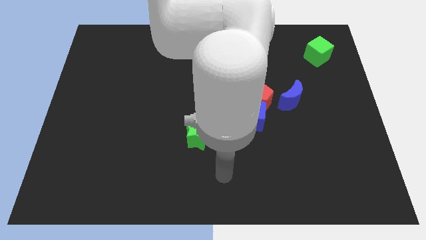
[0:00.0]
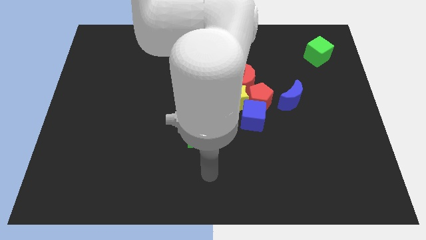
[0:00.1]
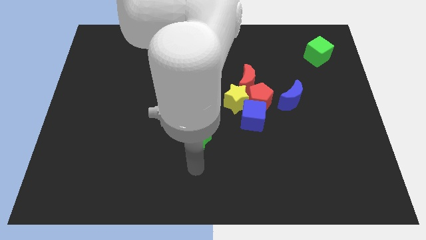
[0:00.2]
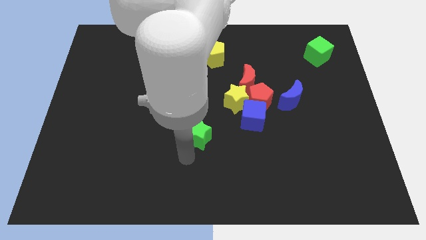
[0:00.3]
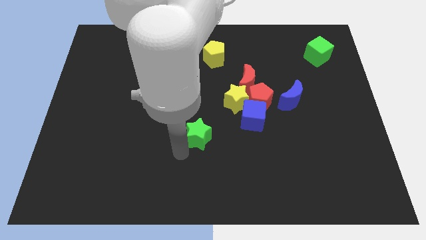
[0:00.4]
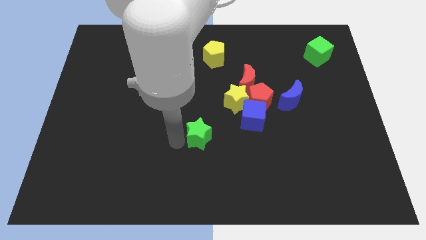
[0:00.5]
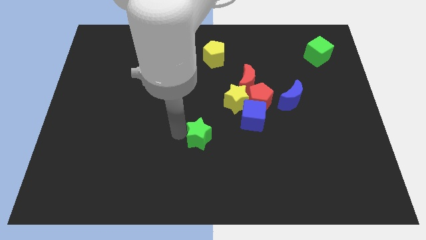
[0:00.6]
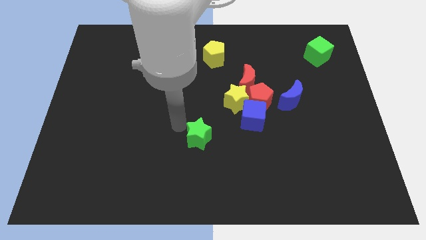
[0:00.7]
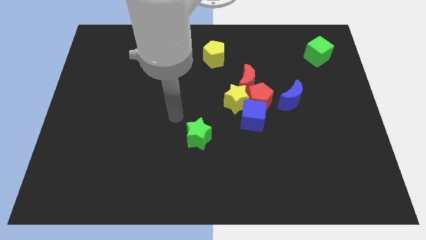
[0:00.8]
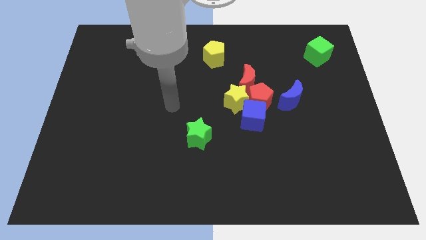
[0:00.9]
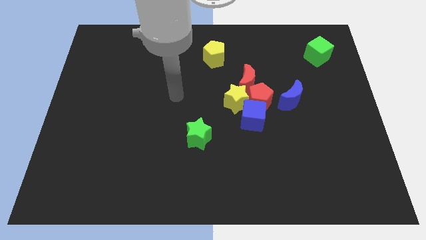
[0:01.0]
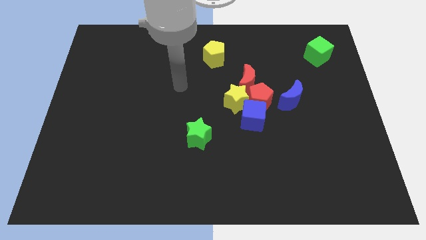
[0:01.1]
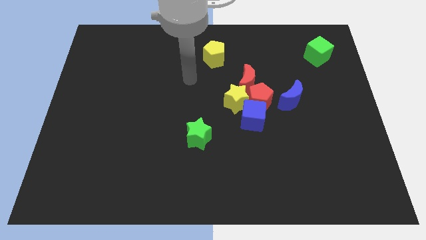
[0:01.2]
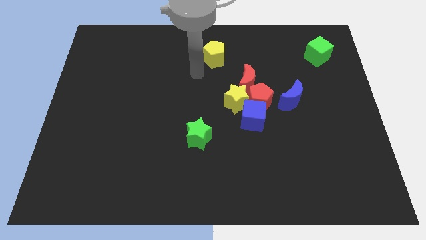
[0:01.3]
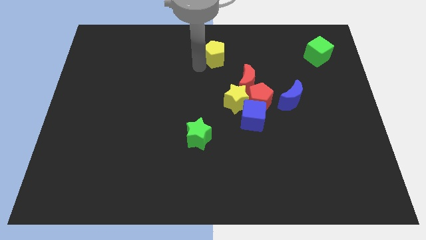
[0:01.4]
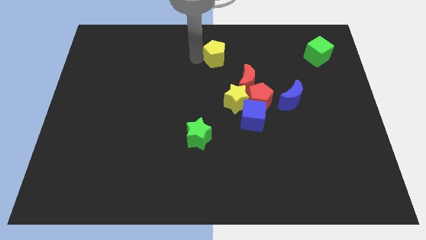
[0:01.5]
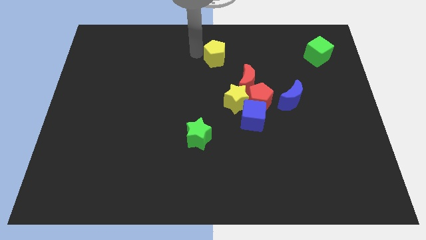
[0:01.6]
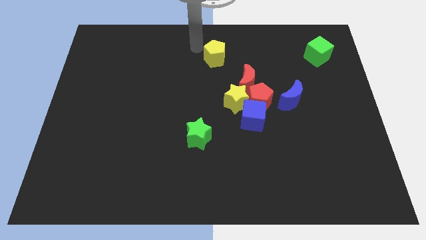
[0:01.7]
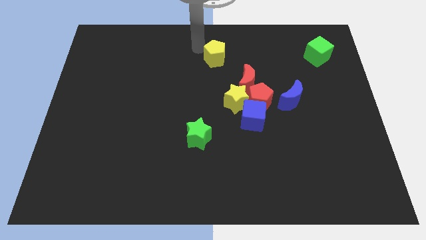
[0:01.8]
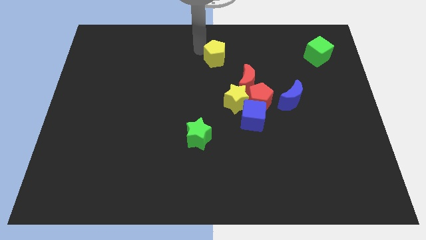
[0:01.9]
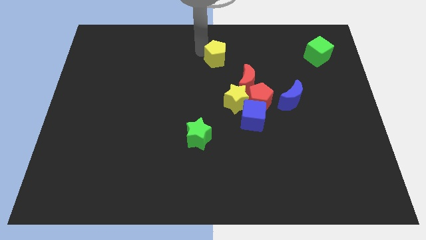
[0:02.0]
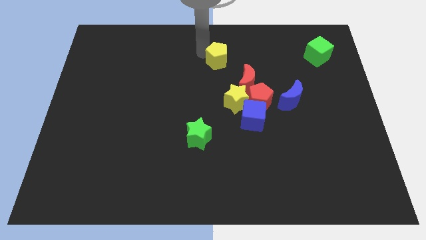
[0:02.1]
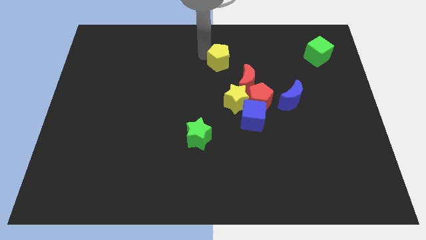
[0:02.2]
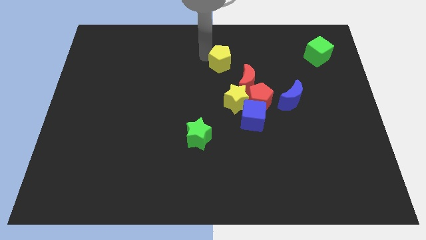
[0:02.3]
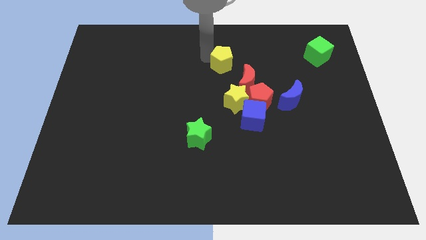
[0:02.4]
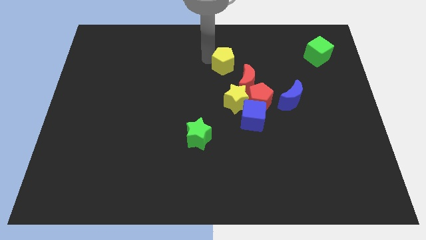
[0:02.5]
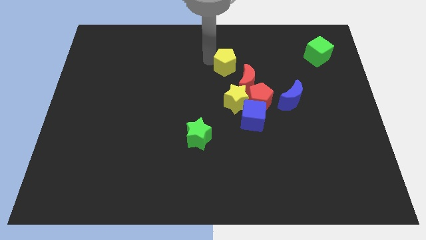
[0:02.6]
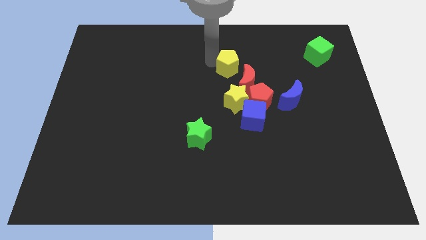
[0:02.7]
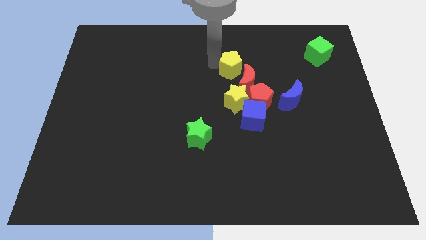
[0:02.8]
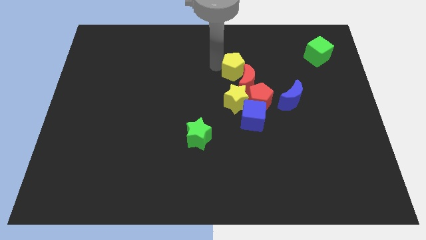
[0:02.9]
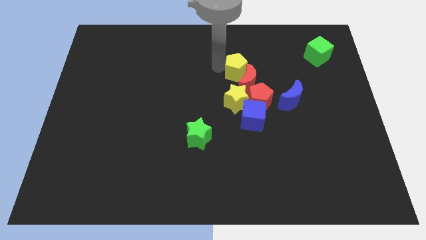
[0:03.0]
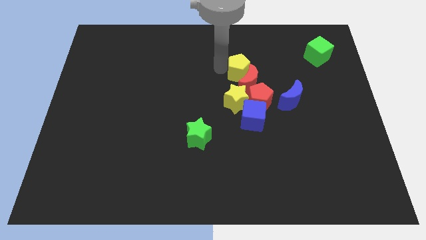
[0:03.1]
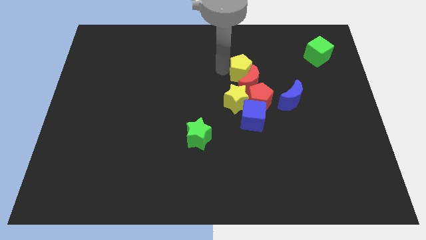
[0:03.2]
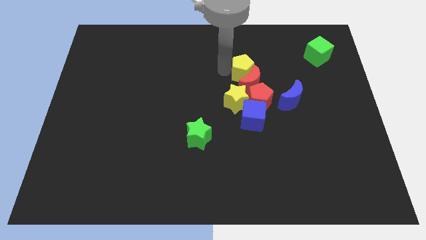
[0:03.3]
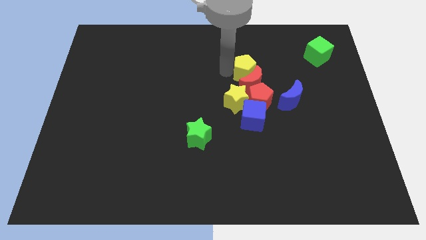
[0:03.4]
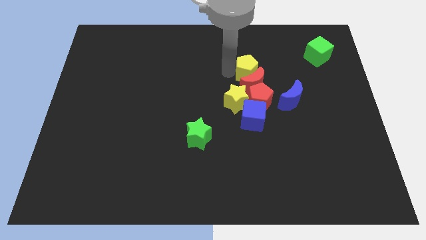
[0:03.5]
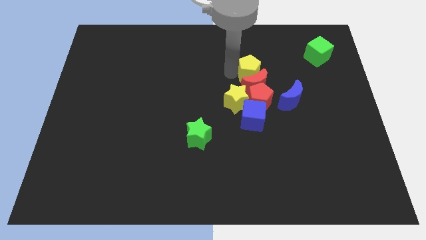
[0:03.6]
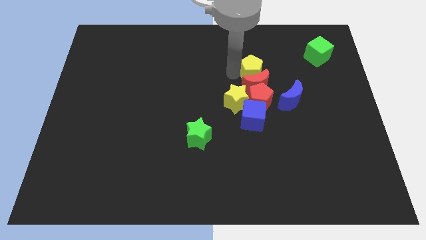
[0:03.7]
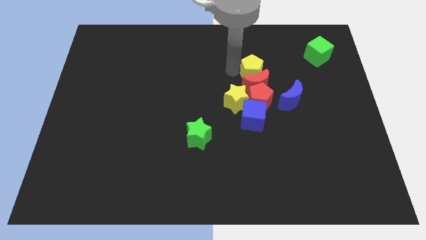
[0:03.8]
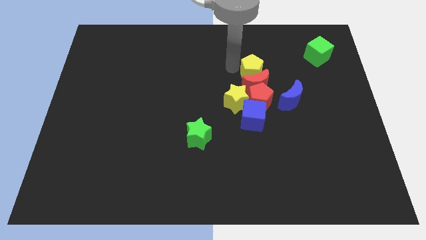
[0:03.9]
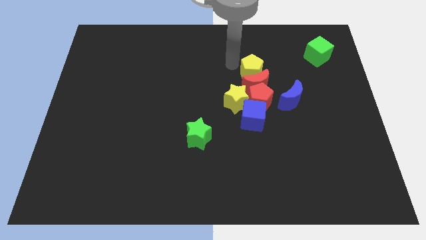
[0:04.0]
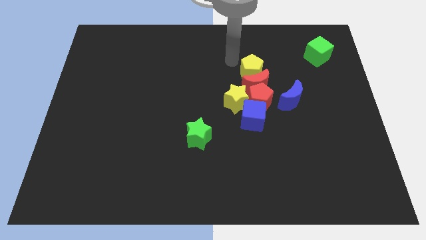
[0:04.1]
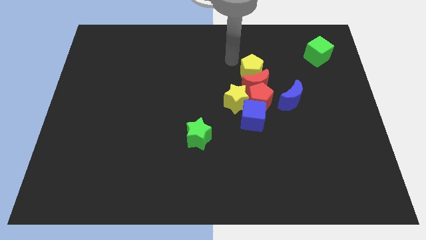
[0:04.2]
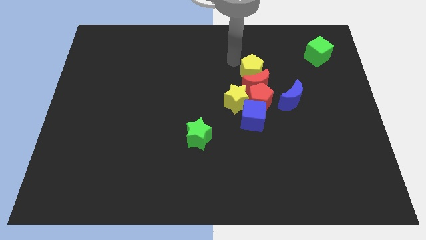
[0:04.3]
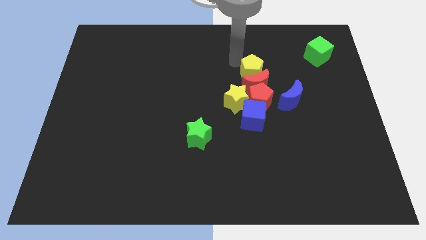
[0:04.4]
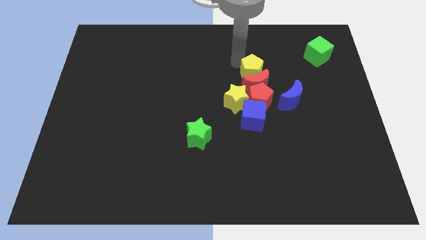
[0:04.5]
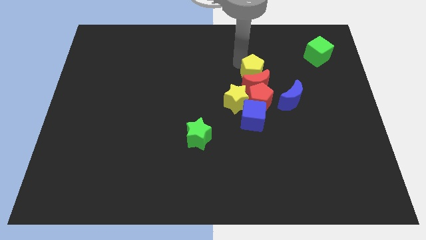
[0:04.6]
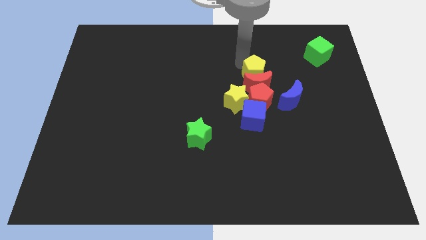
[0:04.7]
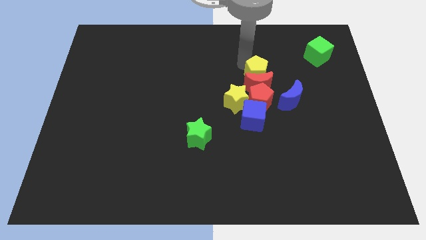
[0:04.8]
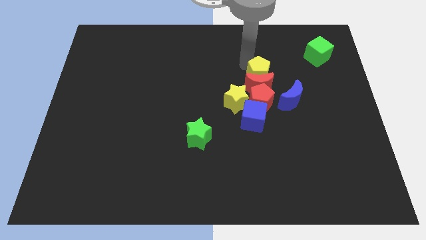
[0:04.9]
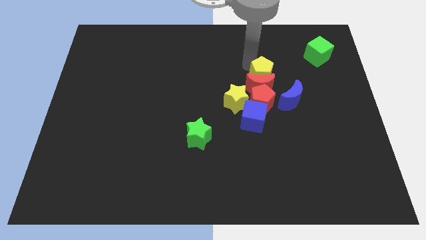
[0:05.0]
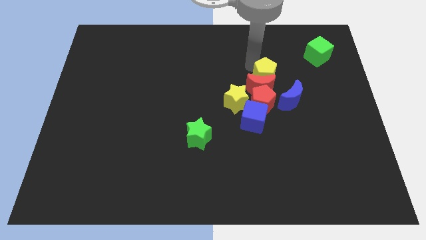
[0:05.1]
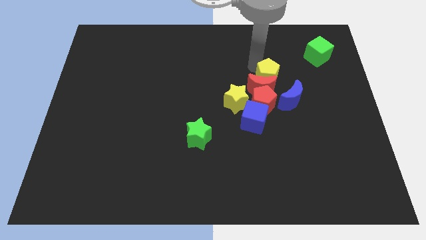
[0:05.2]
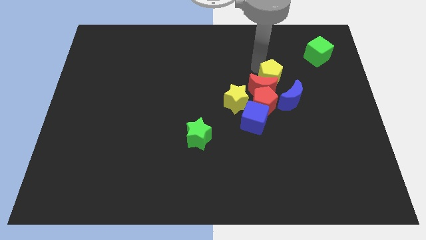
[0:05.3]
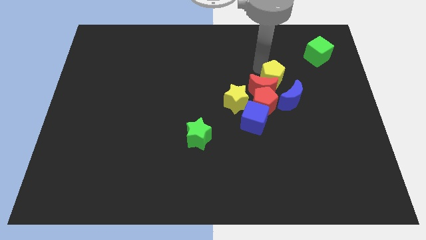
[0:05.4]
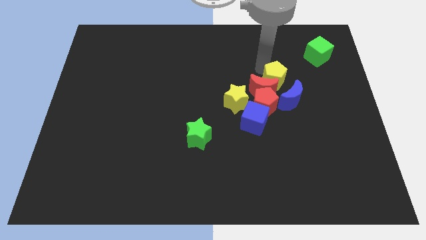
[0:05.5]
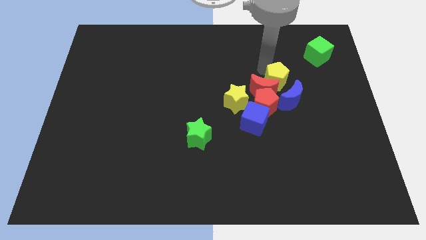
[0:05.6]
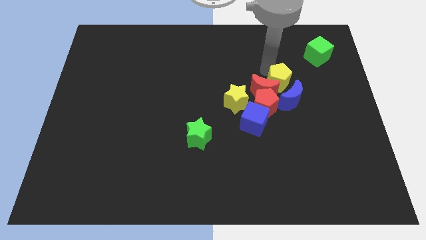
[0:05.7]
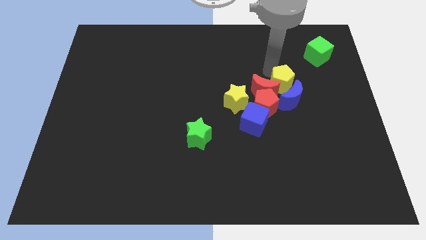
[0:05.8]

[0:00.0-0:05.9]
put the yellow pentagon next to the blue moon

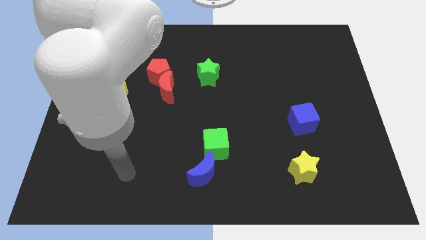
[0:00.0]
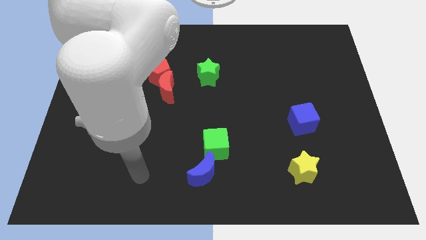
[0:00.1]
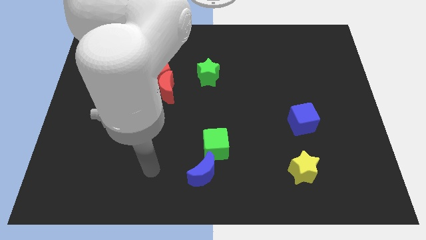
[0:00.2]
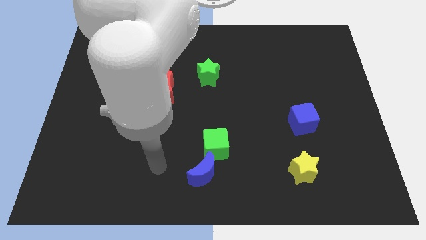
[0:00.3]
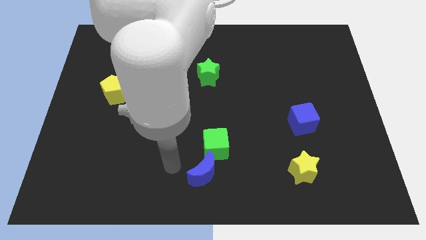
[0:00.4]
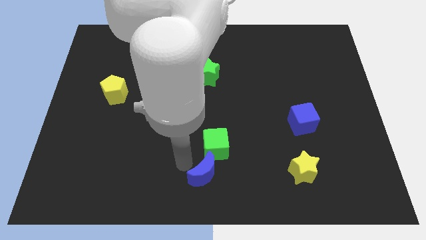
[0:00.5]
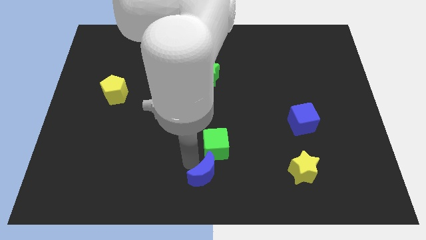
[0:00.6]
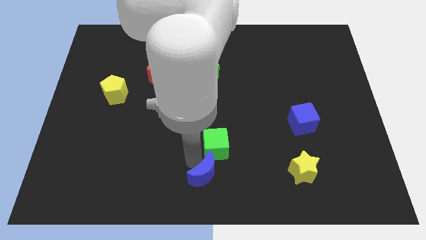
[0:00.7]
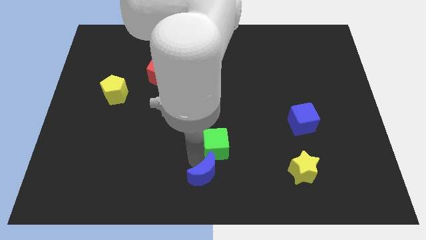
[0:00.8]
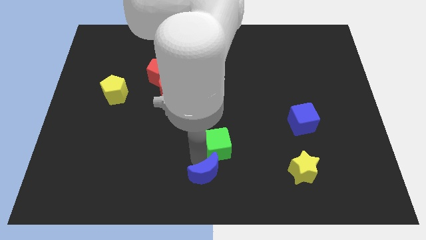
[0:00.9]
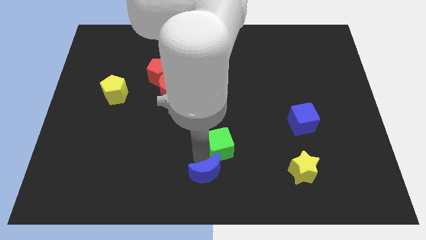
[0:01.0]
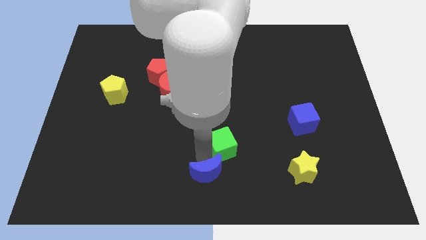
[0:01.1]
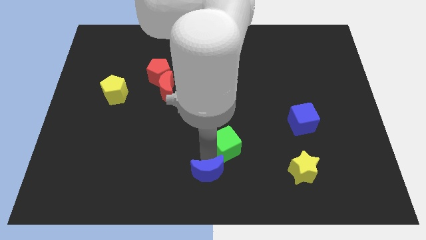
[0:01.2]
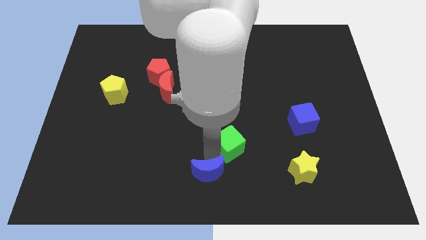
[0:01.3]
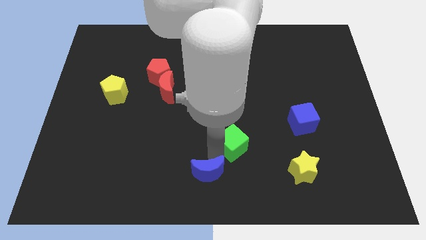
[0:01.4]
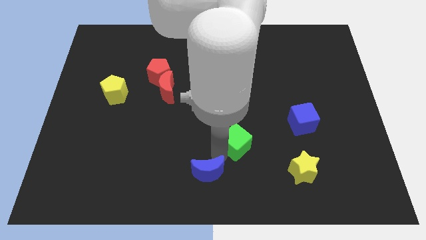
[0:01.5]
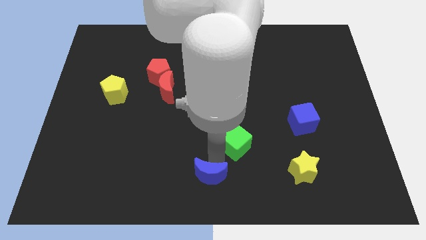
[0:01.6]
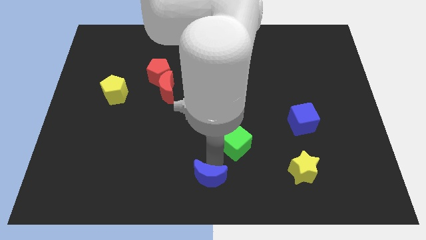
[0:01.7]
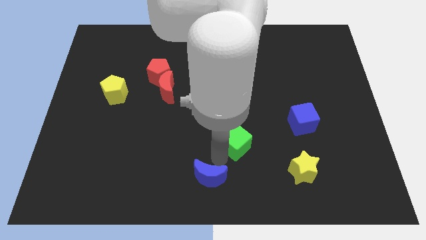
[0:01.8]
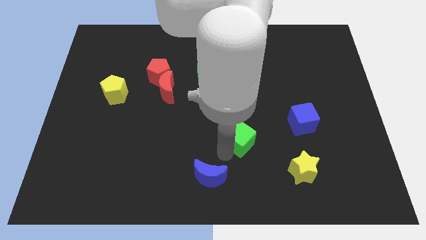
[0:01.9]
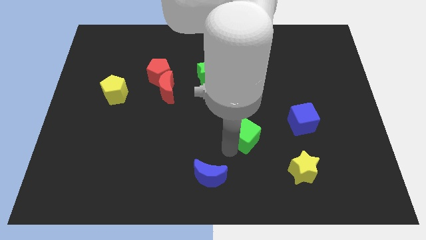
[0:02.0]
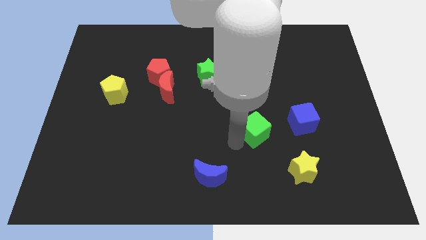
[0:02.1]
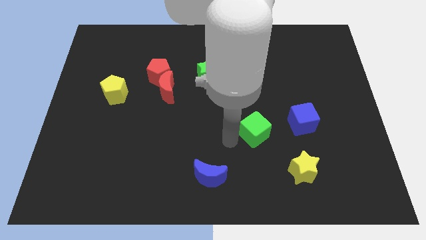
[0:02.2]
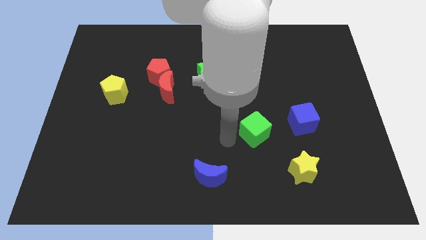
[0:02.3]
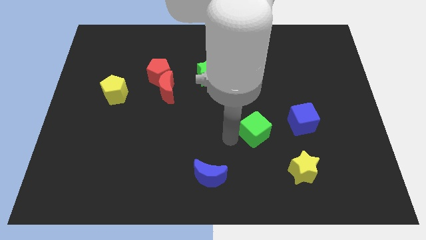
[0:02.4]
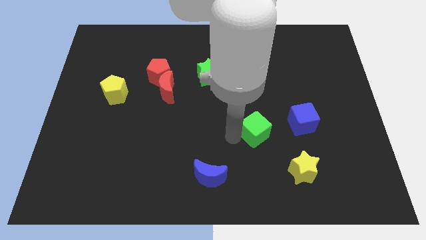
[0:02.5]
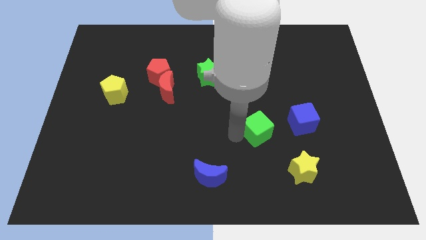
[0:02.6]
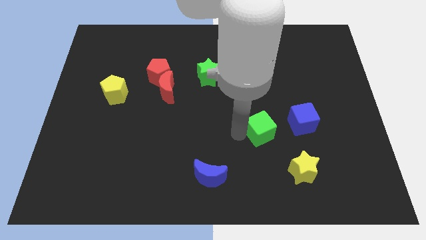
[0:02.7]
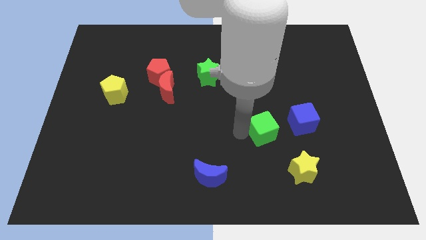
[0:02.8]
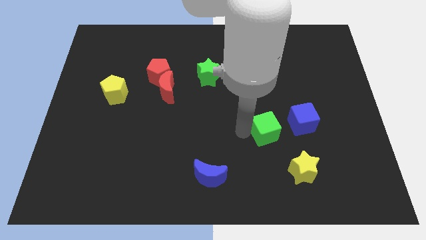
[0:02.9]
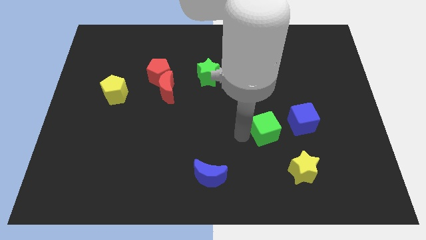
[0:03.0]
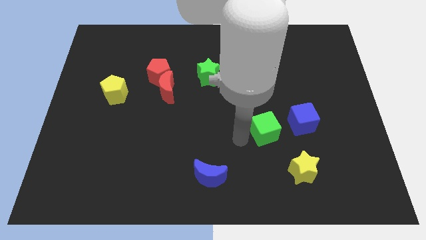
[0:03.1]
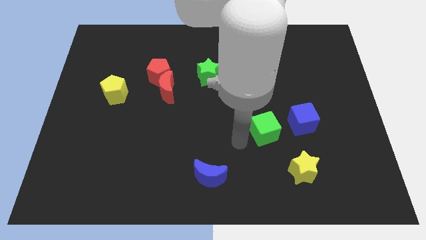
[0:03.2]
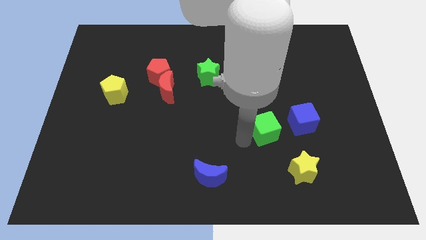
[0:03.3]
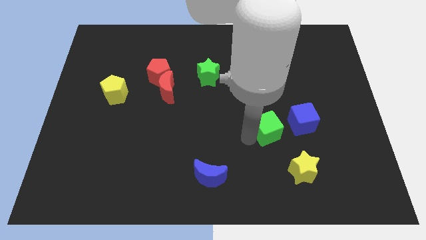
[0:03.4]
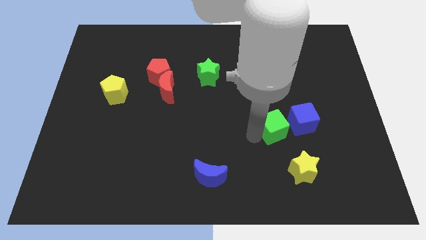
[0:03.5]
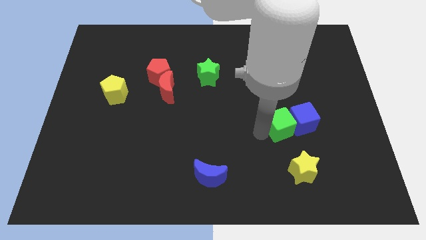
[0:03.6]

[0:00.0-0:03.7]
put the green cube towards the blue cube
